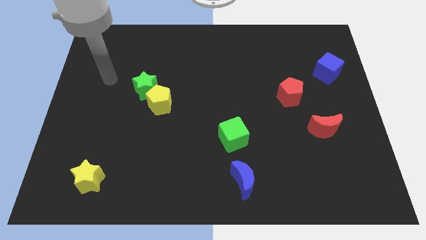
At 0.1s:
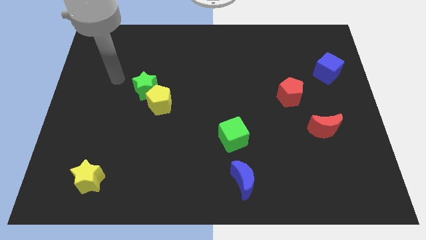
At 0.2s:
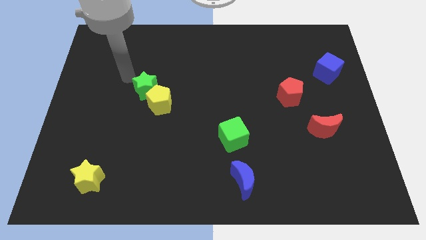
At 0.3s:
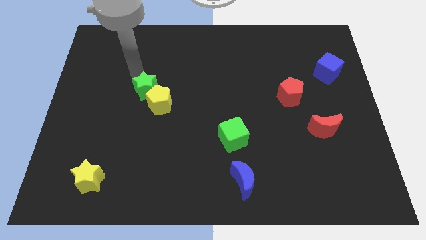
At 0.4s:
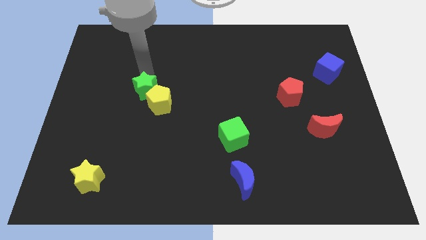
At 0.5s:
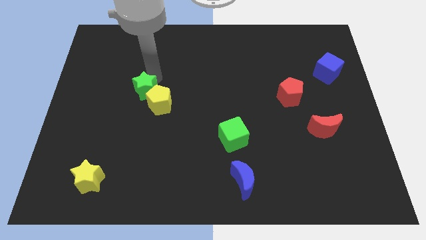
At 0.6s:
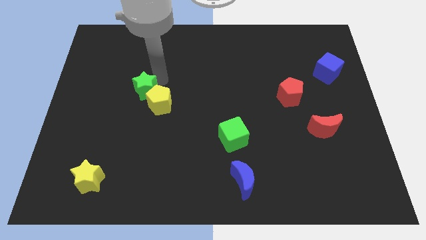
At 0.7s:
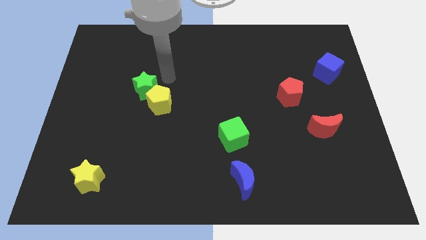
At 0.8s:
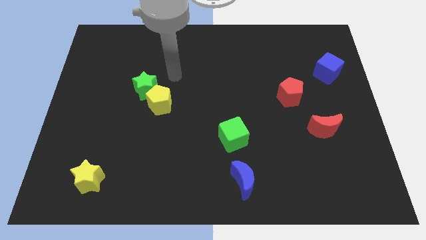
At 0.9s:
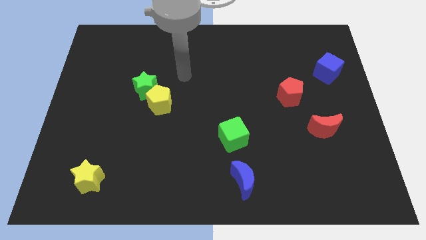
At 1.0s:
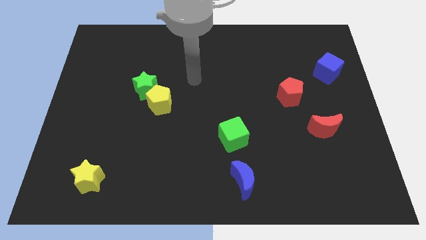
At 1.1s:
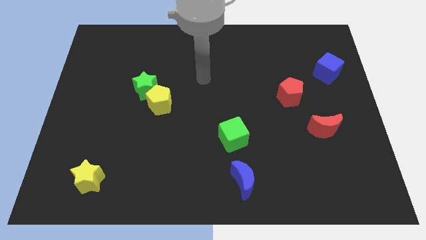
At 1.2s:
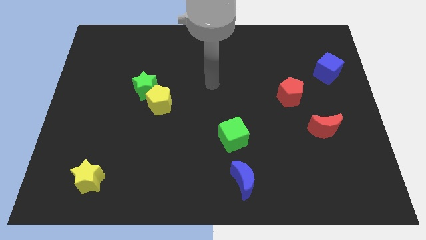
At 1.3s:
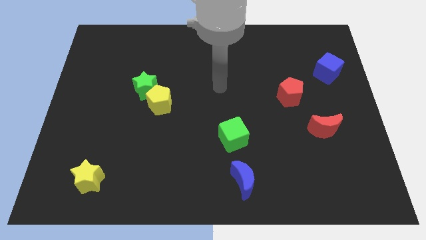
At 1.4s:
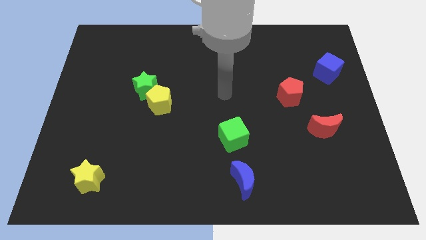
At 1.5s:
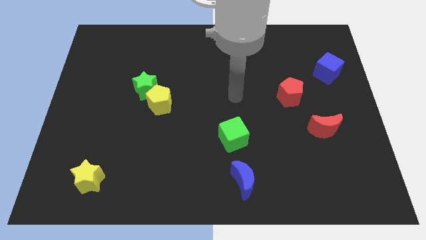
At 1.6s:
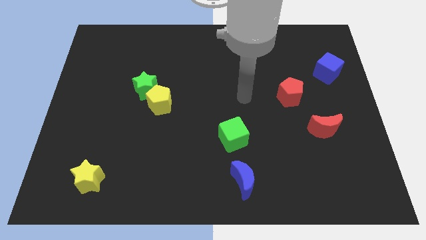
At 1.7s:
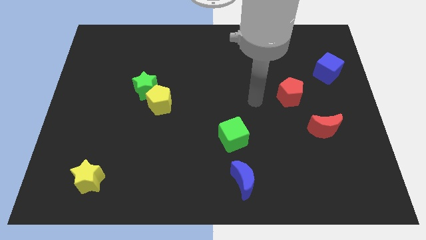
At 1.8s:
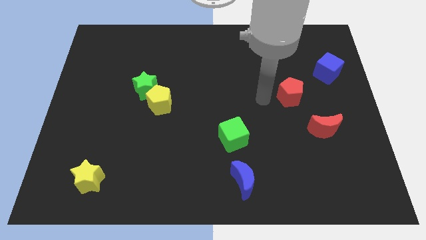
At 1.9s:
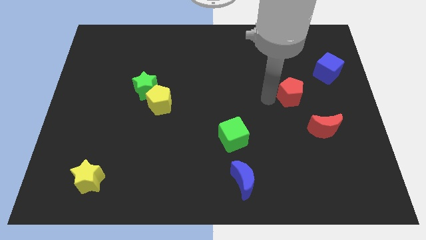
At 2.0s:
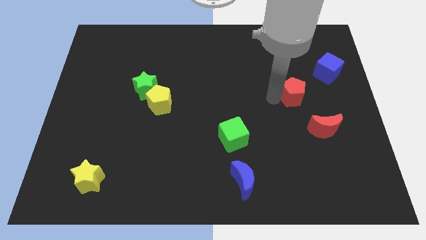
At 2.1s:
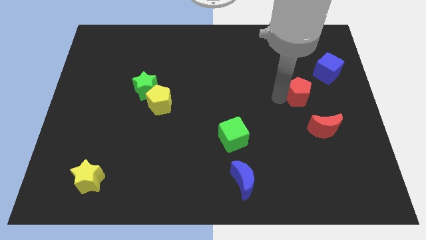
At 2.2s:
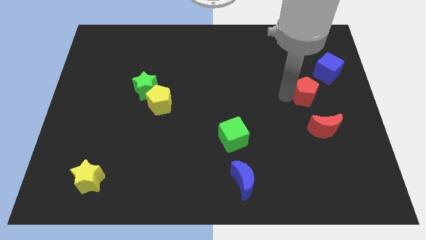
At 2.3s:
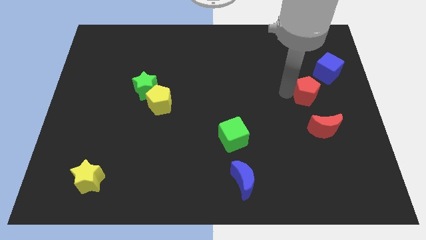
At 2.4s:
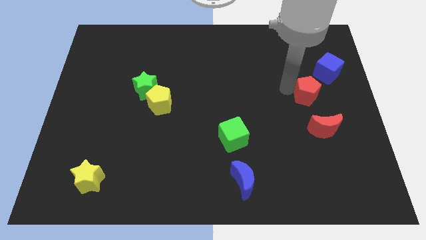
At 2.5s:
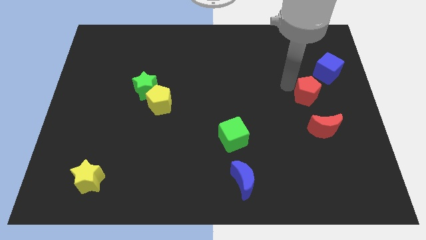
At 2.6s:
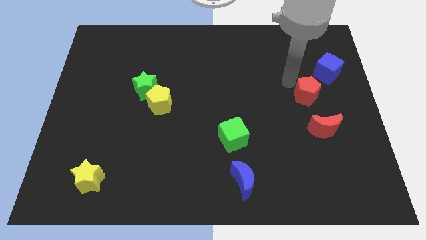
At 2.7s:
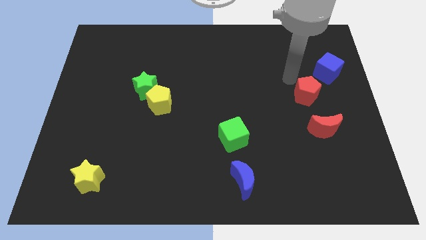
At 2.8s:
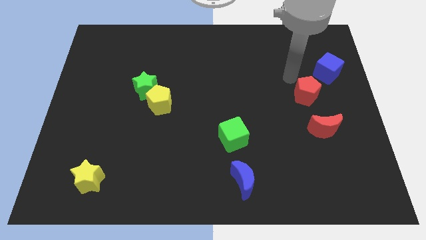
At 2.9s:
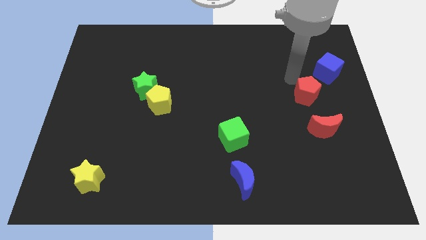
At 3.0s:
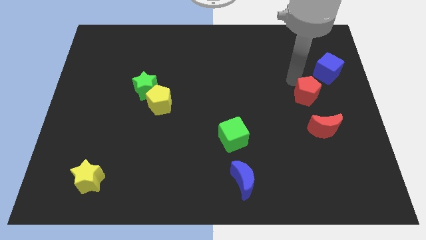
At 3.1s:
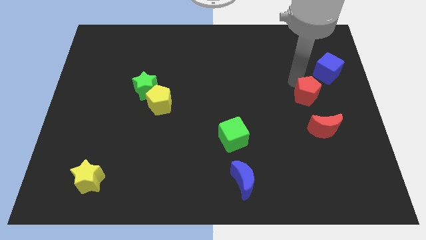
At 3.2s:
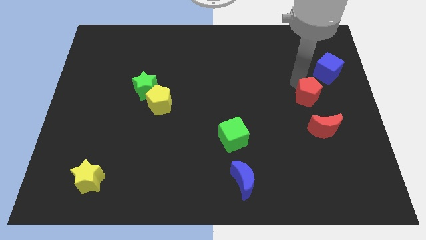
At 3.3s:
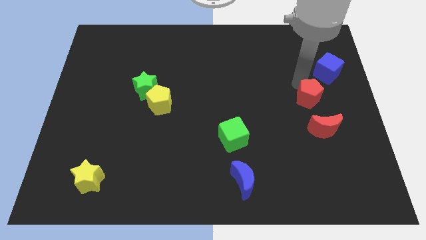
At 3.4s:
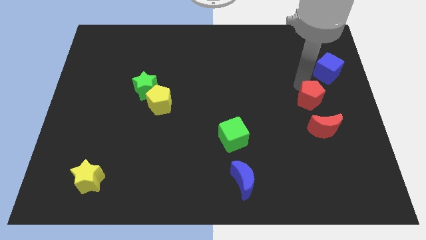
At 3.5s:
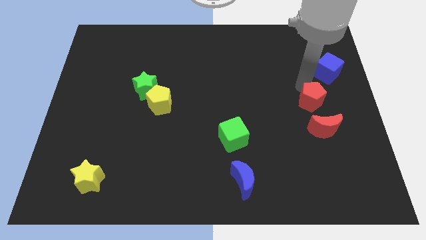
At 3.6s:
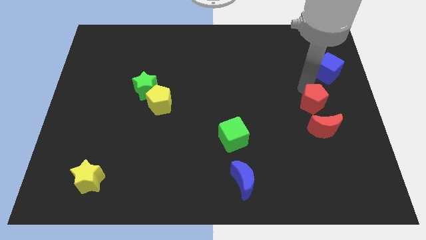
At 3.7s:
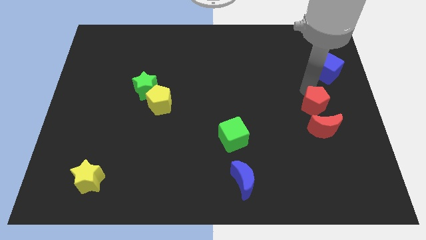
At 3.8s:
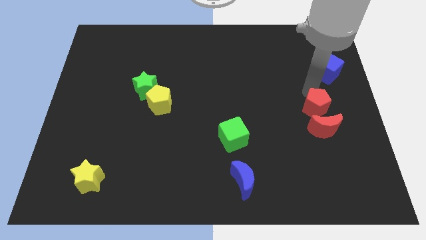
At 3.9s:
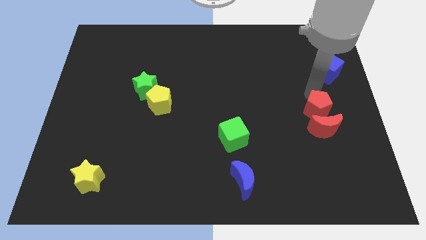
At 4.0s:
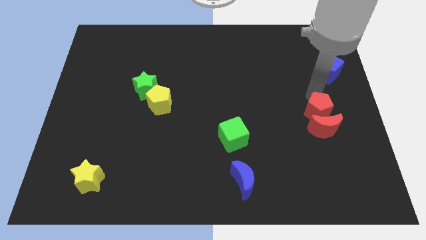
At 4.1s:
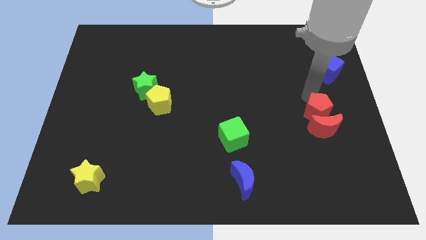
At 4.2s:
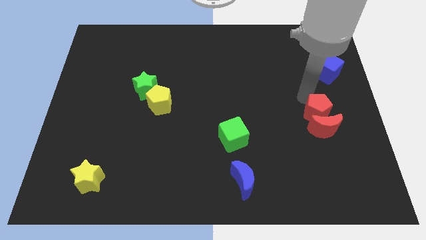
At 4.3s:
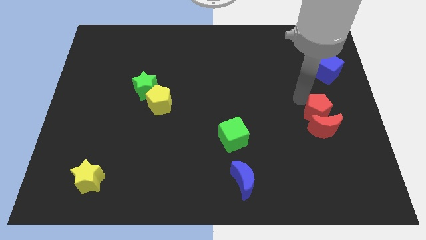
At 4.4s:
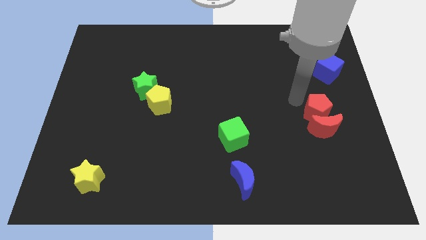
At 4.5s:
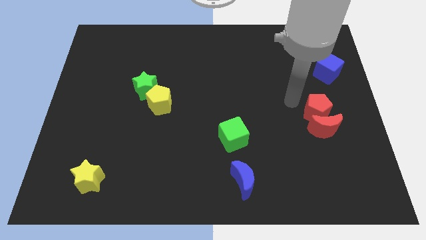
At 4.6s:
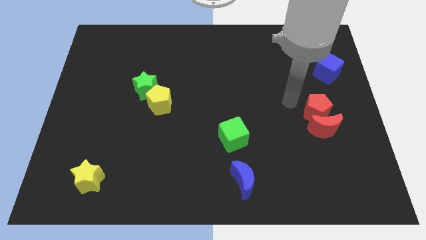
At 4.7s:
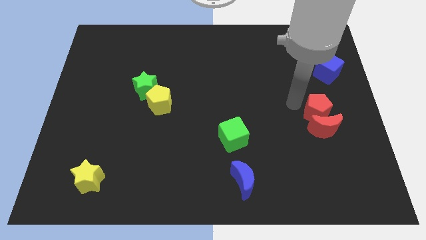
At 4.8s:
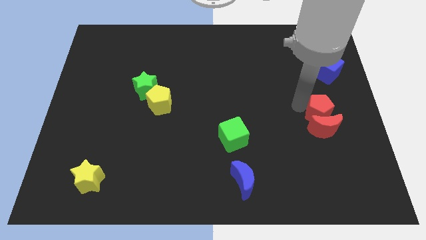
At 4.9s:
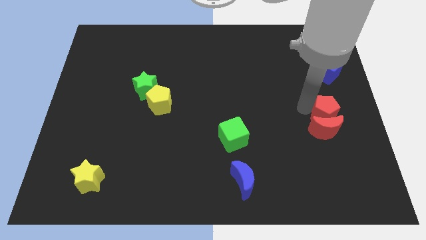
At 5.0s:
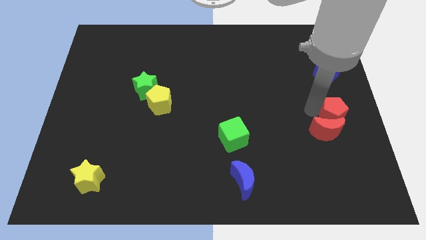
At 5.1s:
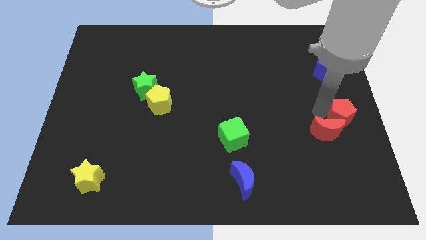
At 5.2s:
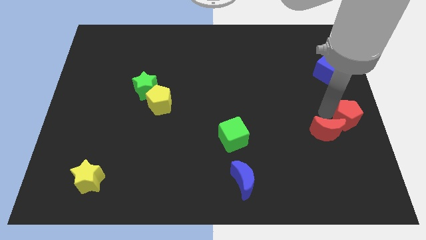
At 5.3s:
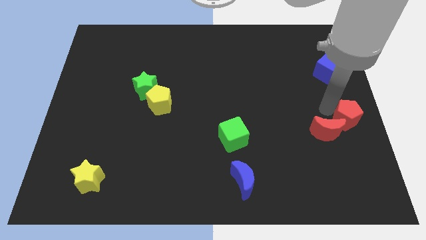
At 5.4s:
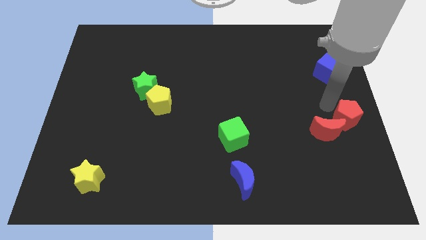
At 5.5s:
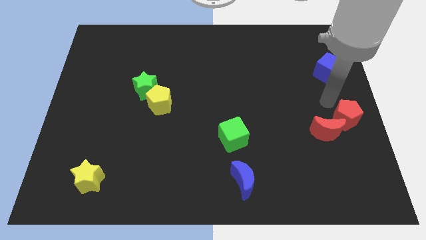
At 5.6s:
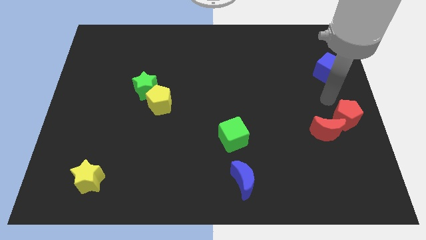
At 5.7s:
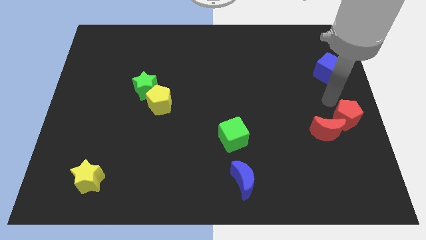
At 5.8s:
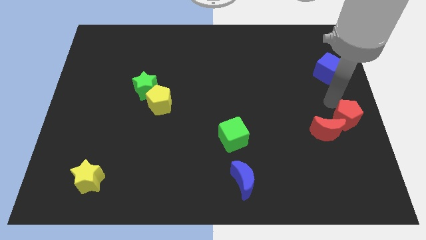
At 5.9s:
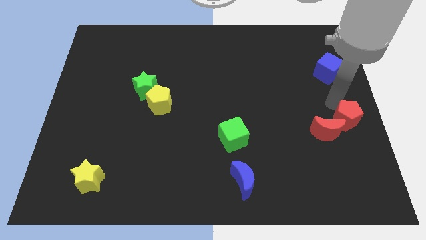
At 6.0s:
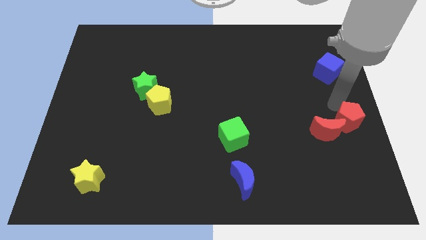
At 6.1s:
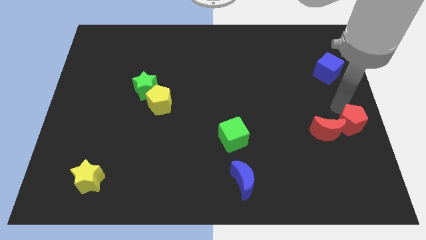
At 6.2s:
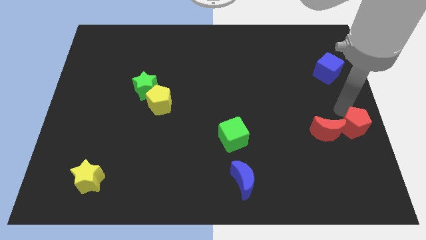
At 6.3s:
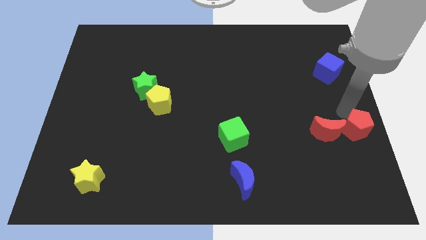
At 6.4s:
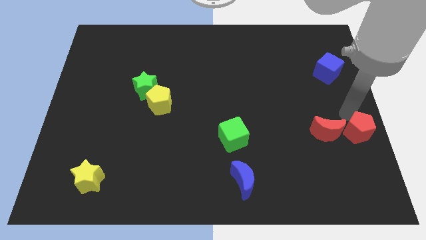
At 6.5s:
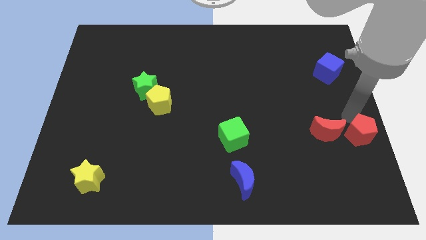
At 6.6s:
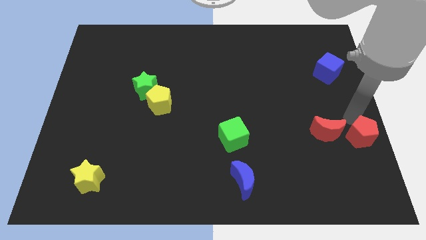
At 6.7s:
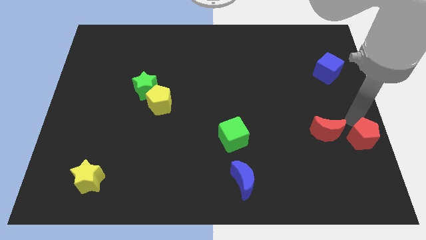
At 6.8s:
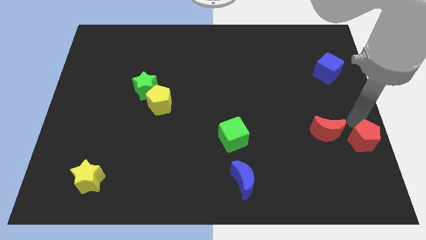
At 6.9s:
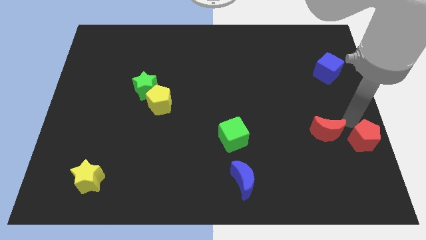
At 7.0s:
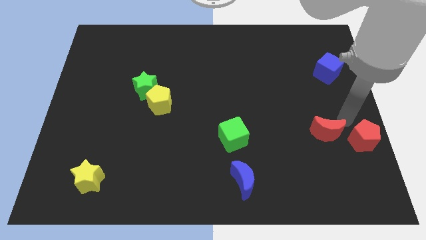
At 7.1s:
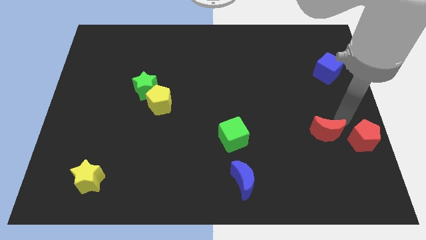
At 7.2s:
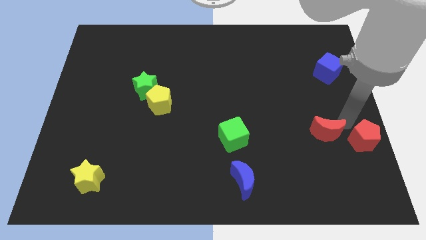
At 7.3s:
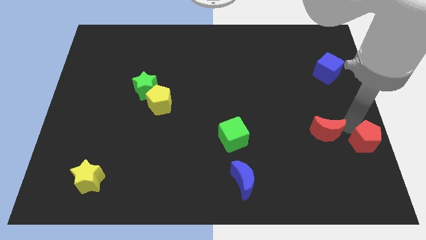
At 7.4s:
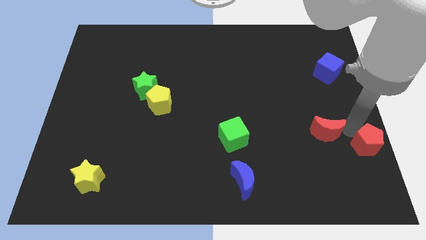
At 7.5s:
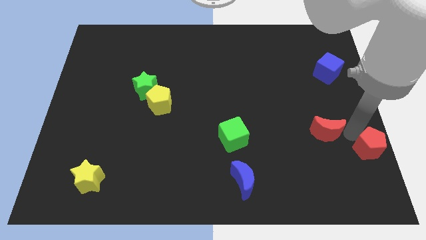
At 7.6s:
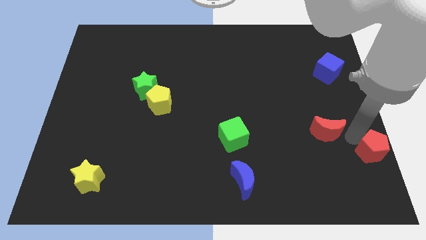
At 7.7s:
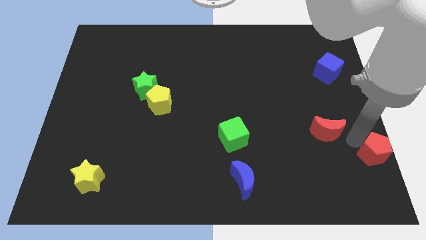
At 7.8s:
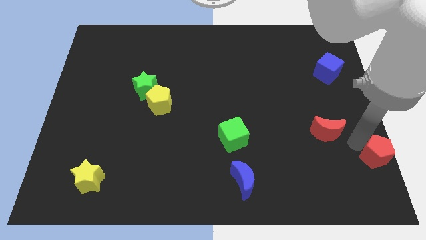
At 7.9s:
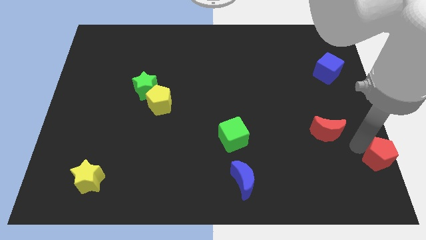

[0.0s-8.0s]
put the red pentagon to the lower right corner

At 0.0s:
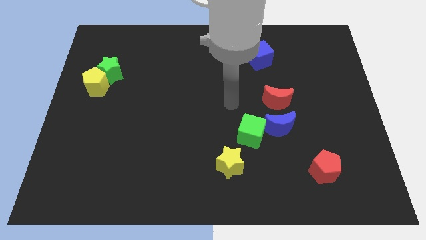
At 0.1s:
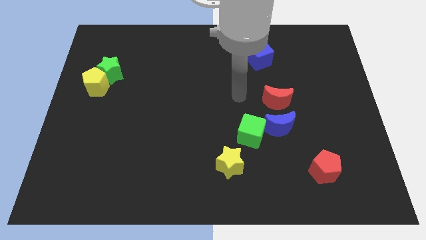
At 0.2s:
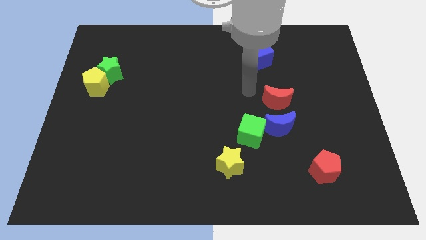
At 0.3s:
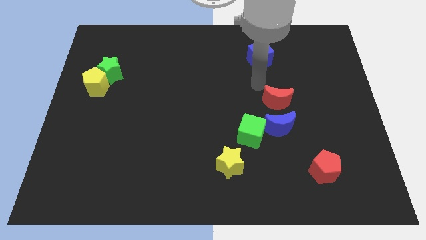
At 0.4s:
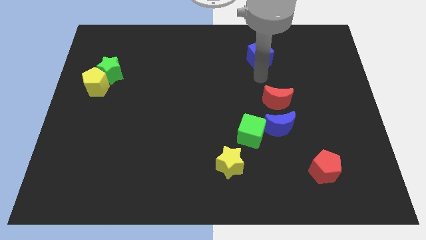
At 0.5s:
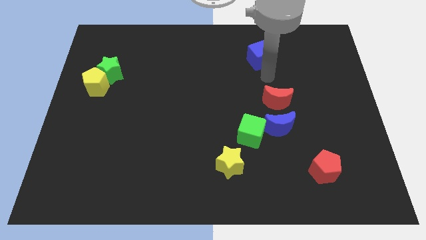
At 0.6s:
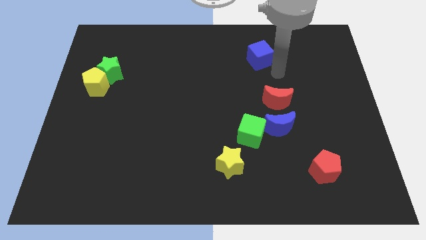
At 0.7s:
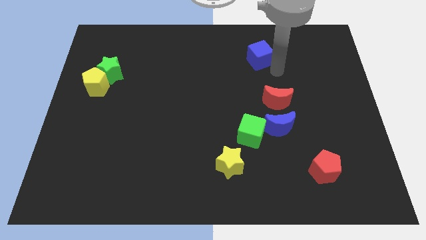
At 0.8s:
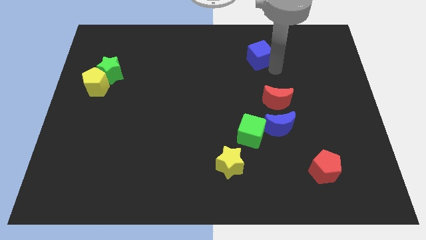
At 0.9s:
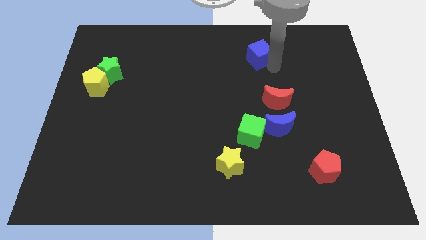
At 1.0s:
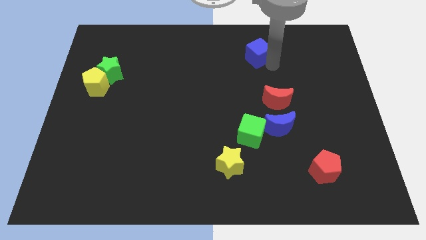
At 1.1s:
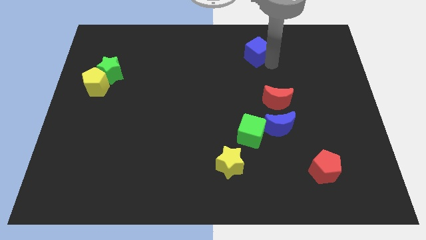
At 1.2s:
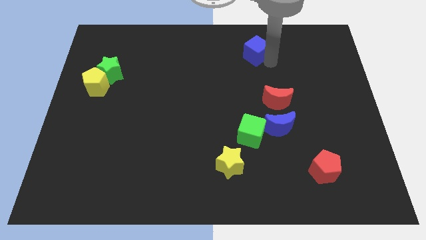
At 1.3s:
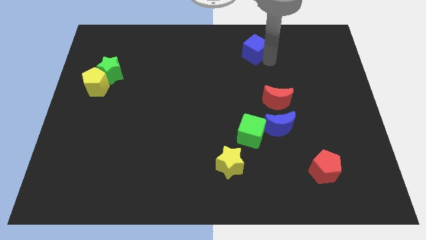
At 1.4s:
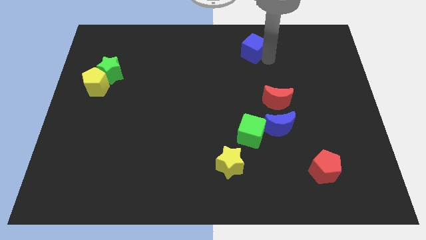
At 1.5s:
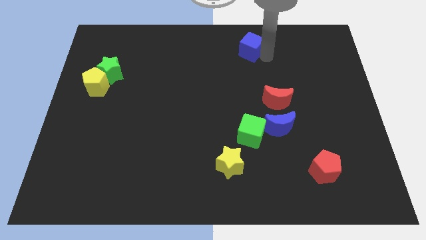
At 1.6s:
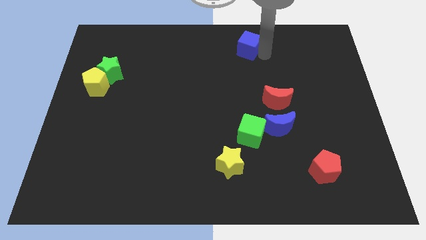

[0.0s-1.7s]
move the blue cube to the top
